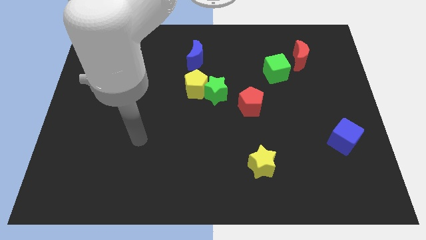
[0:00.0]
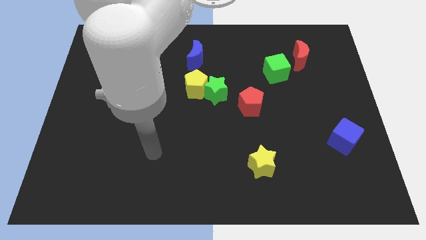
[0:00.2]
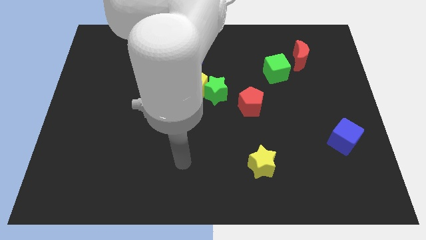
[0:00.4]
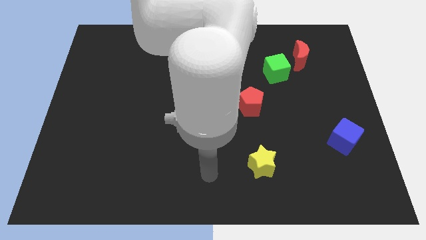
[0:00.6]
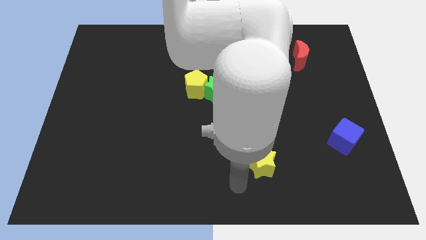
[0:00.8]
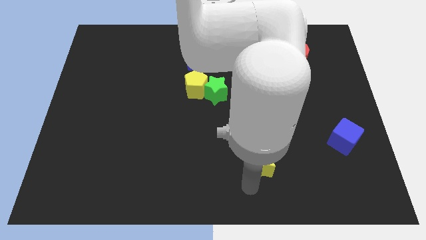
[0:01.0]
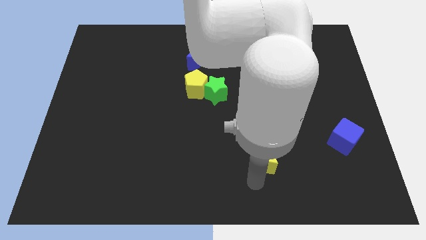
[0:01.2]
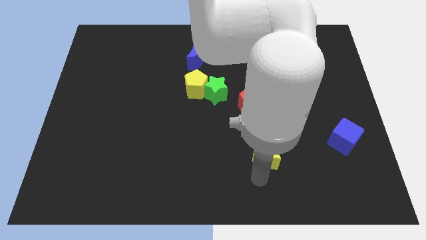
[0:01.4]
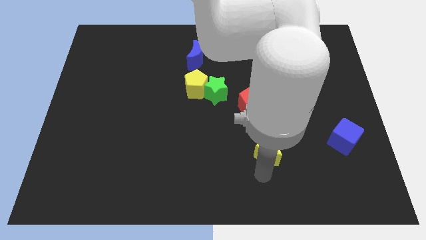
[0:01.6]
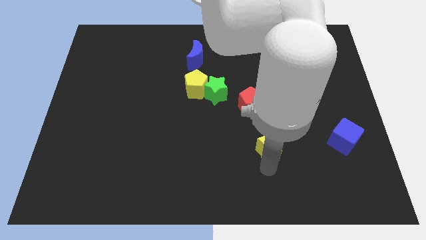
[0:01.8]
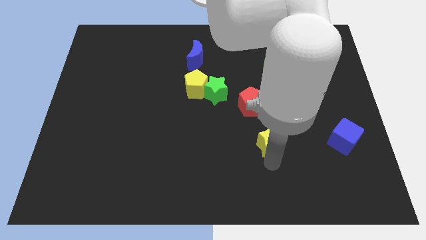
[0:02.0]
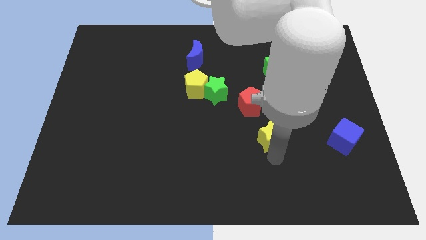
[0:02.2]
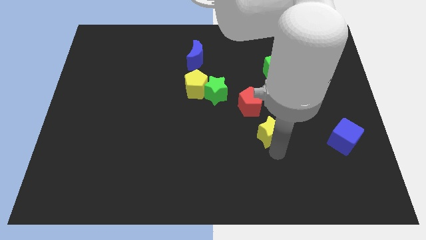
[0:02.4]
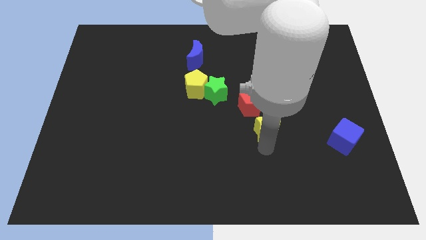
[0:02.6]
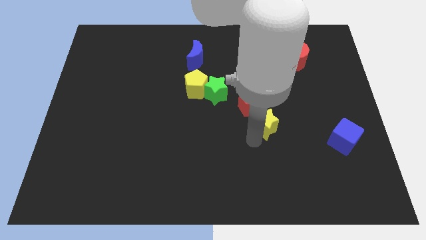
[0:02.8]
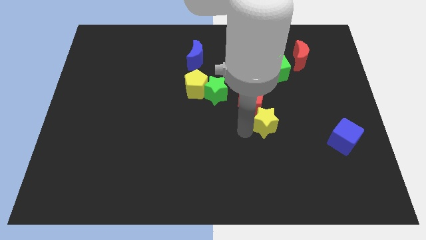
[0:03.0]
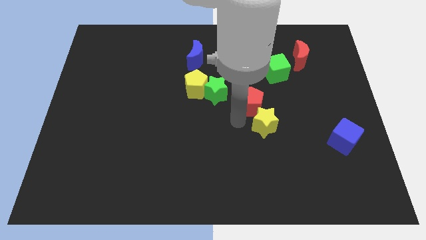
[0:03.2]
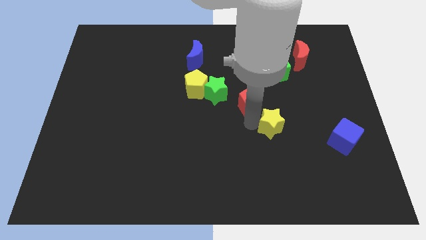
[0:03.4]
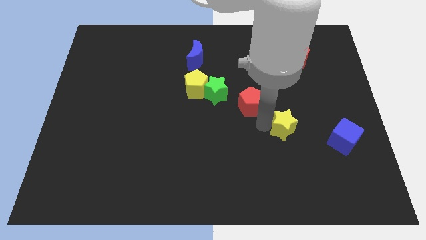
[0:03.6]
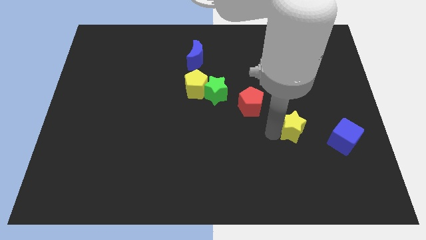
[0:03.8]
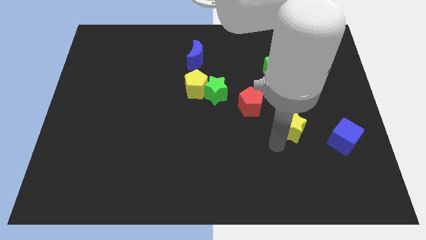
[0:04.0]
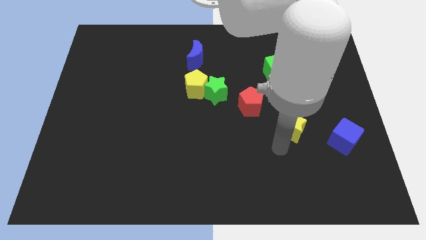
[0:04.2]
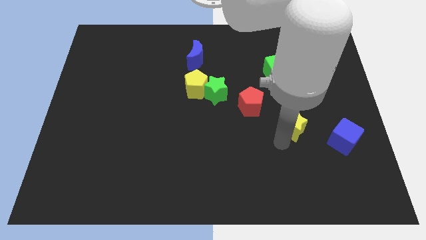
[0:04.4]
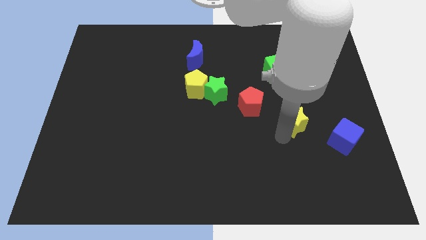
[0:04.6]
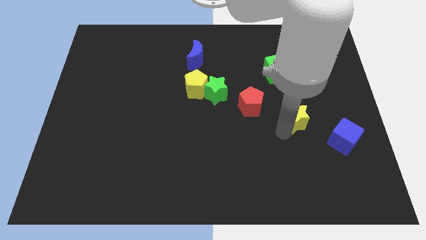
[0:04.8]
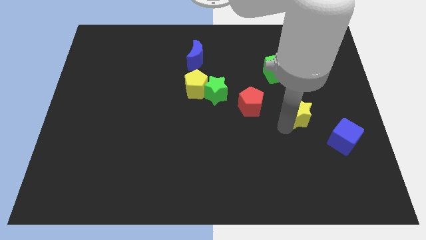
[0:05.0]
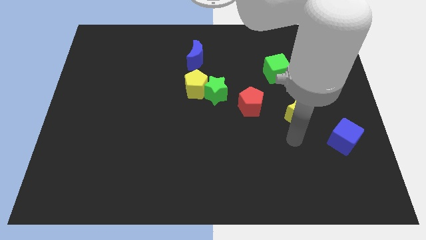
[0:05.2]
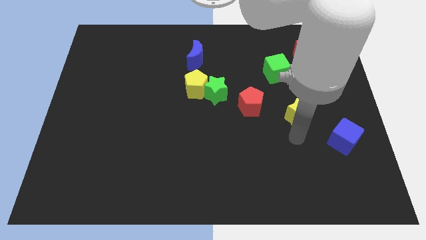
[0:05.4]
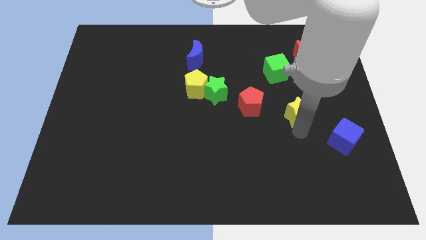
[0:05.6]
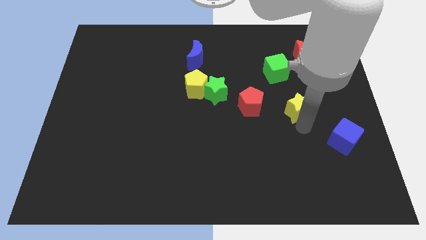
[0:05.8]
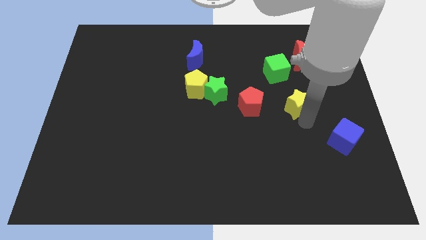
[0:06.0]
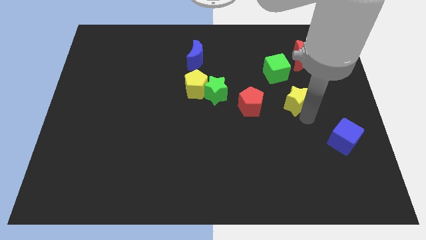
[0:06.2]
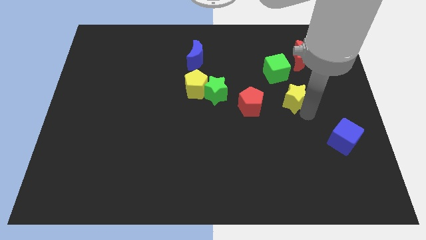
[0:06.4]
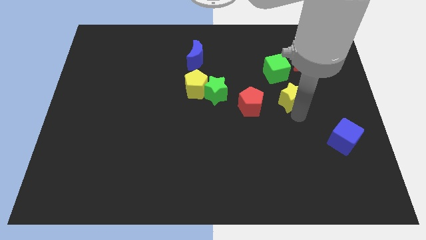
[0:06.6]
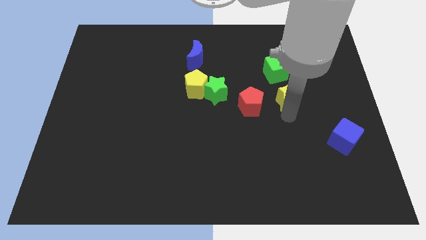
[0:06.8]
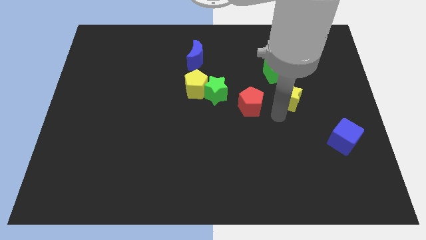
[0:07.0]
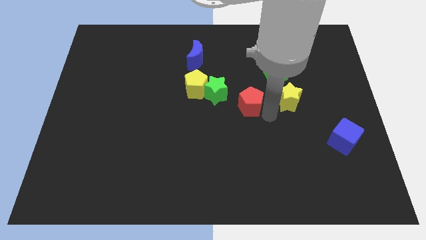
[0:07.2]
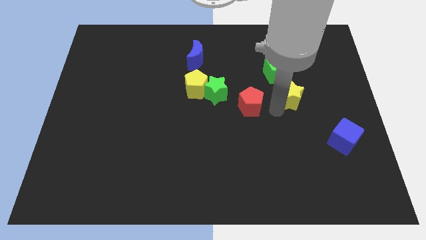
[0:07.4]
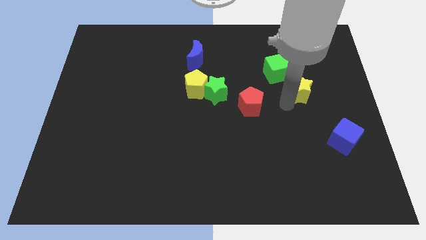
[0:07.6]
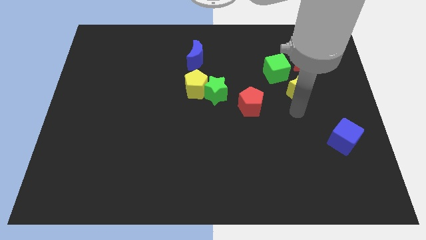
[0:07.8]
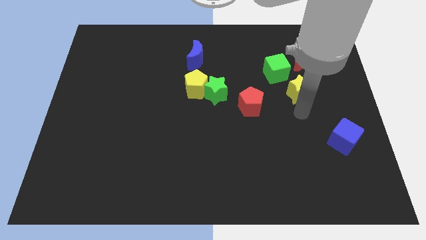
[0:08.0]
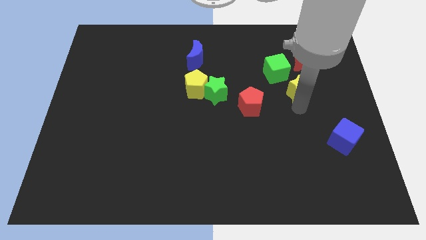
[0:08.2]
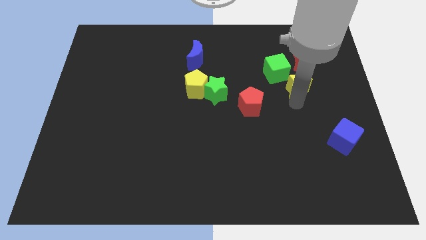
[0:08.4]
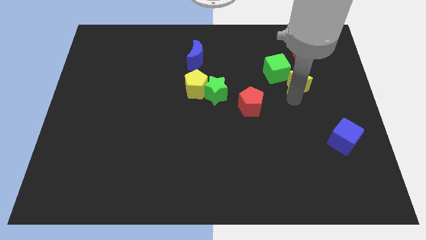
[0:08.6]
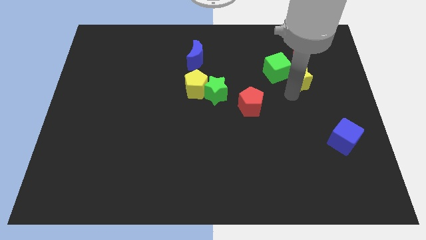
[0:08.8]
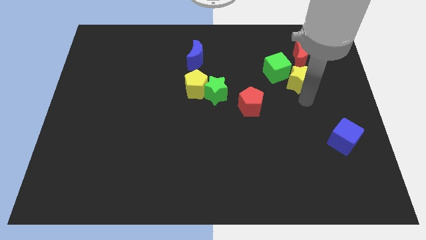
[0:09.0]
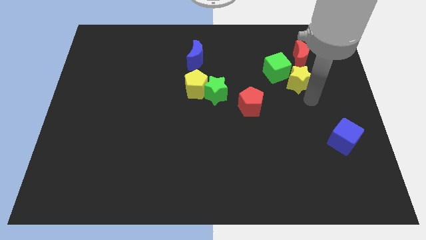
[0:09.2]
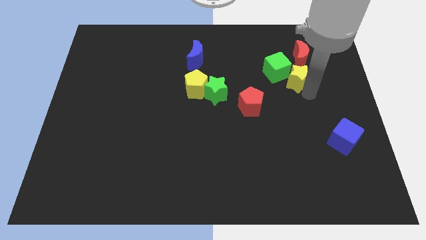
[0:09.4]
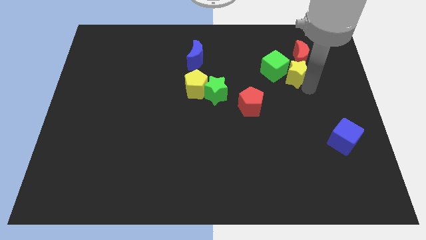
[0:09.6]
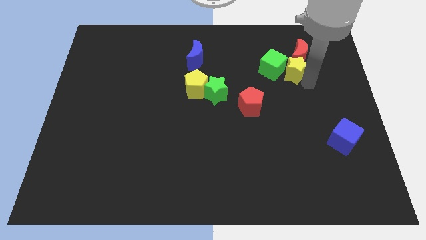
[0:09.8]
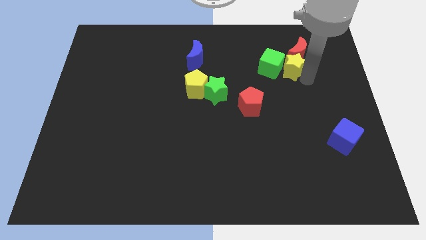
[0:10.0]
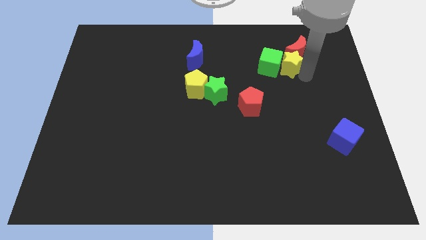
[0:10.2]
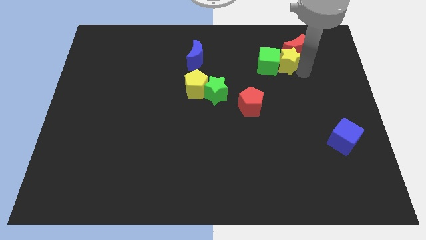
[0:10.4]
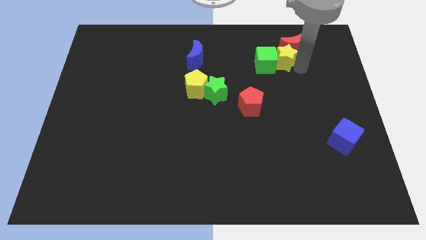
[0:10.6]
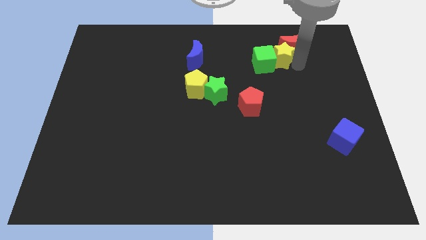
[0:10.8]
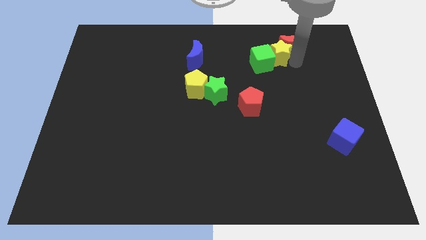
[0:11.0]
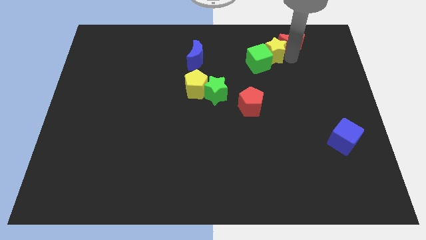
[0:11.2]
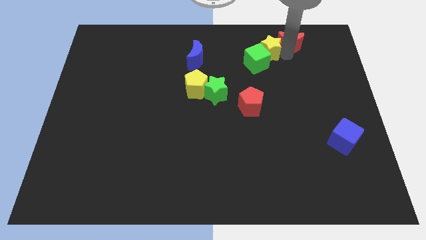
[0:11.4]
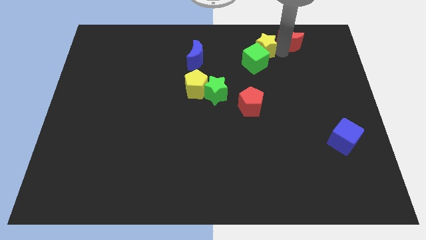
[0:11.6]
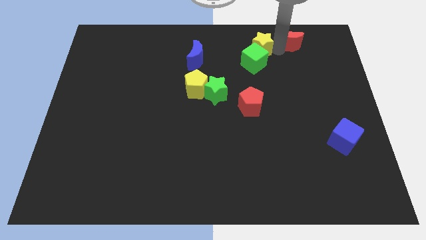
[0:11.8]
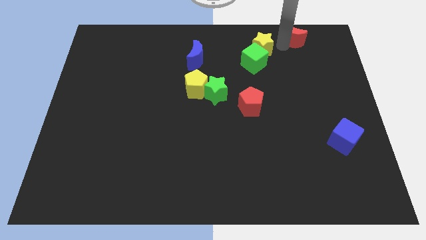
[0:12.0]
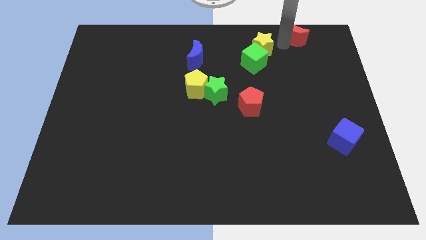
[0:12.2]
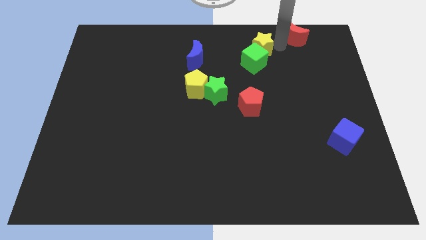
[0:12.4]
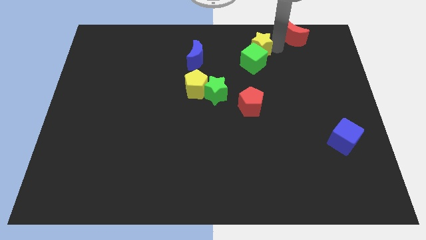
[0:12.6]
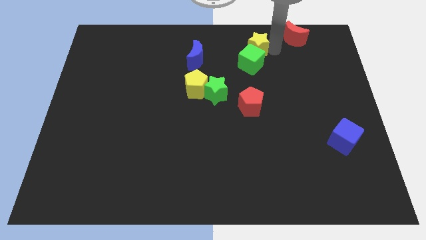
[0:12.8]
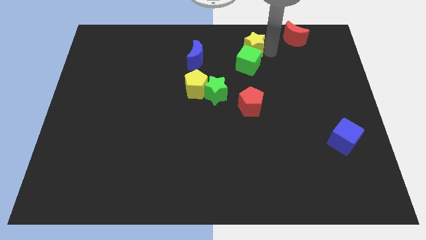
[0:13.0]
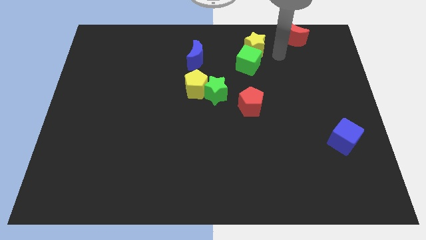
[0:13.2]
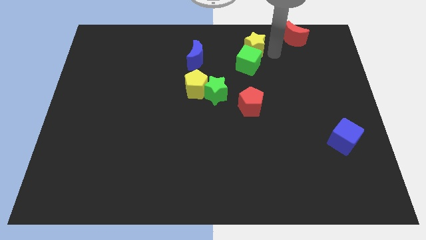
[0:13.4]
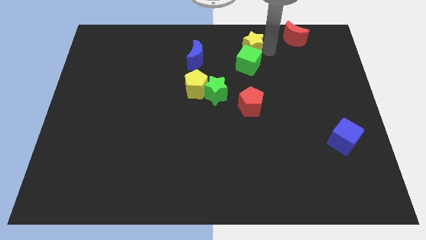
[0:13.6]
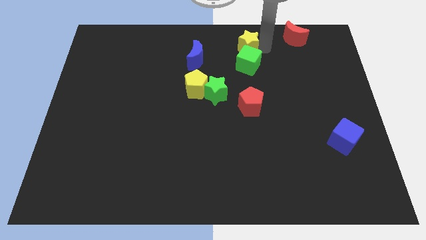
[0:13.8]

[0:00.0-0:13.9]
put the yellow star to the top
